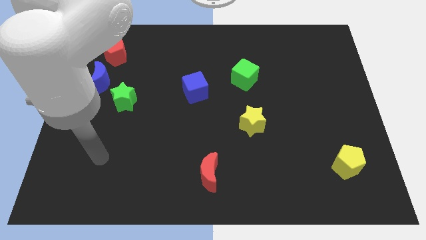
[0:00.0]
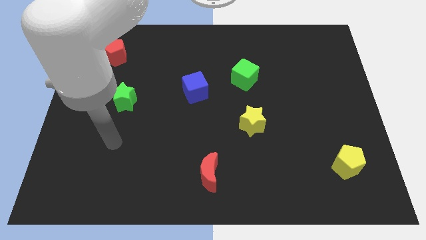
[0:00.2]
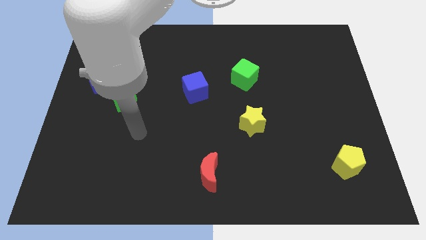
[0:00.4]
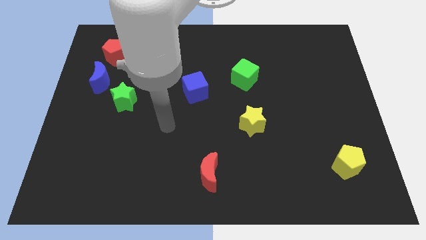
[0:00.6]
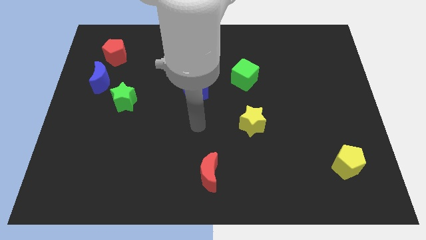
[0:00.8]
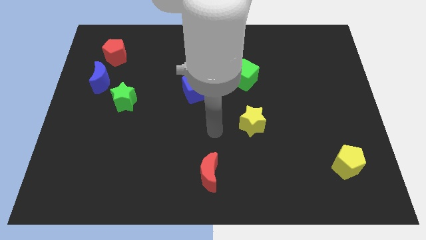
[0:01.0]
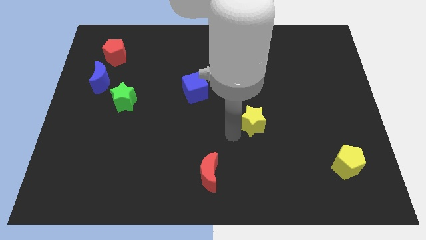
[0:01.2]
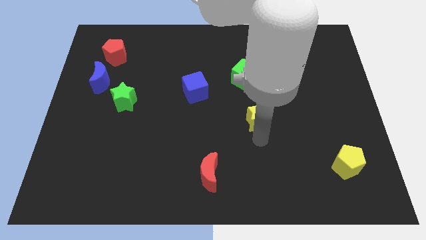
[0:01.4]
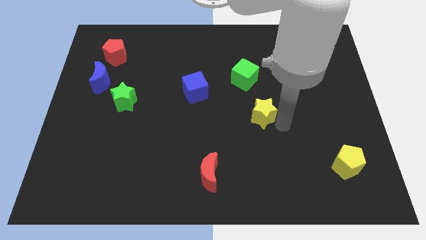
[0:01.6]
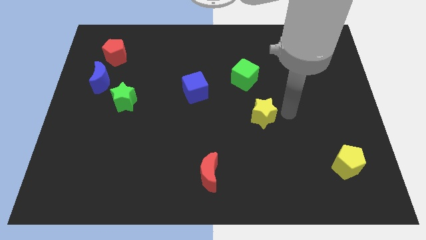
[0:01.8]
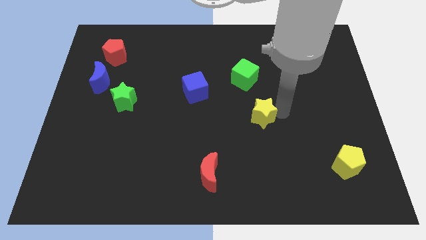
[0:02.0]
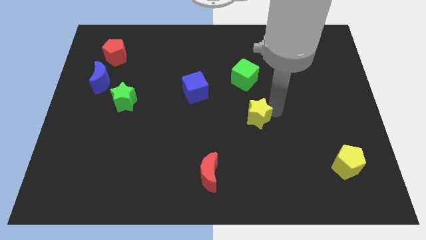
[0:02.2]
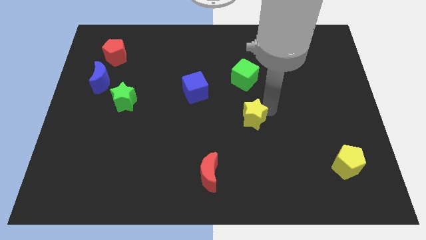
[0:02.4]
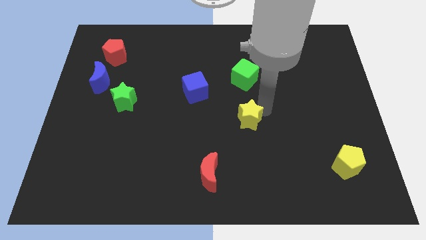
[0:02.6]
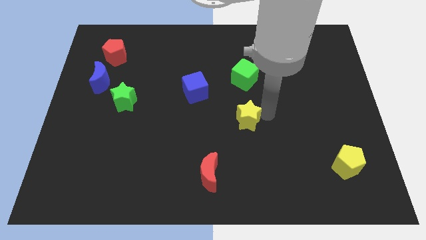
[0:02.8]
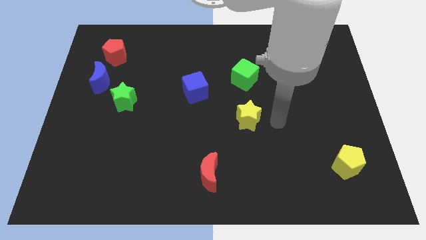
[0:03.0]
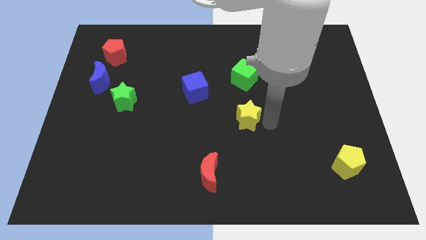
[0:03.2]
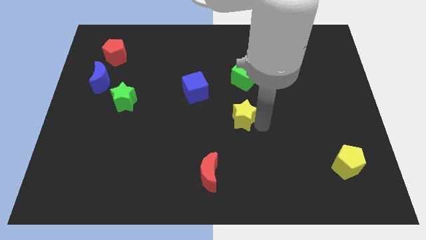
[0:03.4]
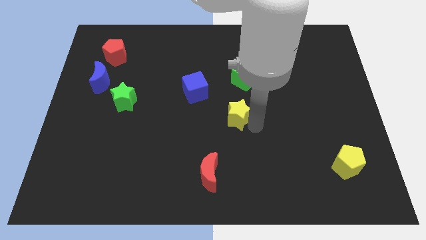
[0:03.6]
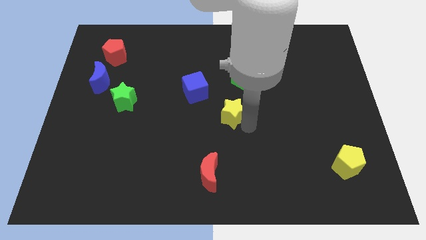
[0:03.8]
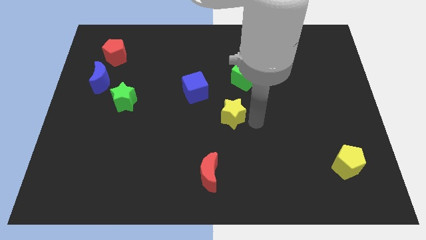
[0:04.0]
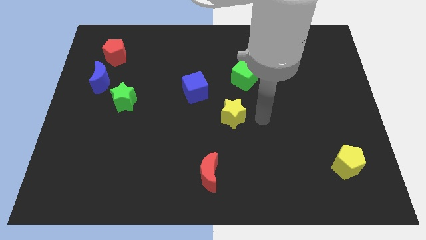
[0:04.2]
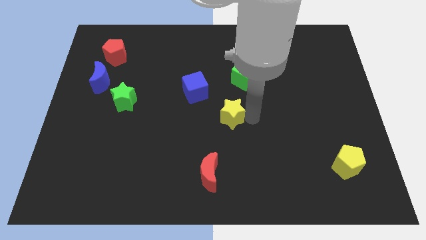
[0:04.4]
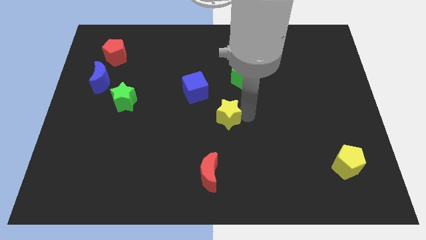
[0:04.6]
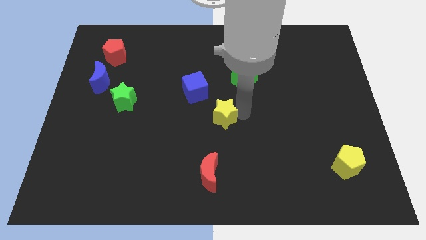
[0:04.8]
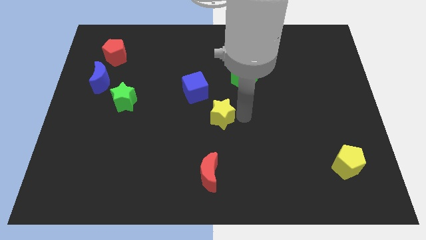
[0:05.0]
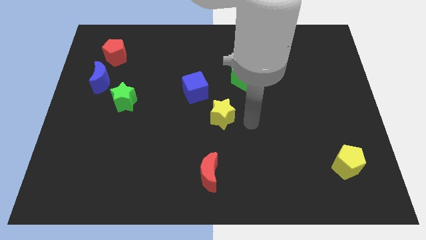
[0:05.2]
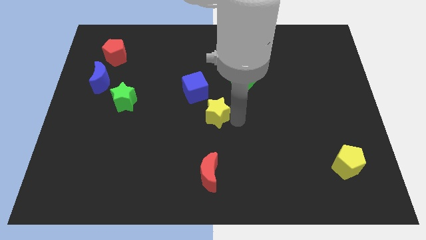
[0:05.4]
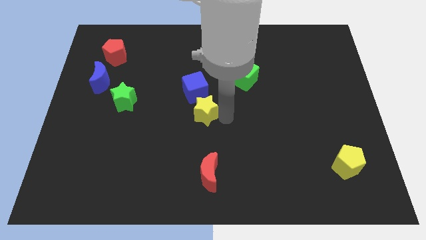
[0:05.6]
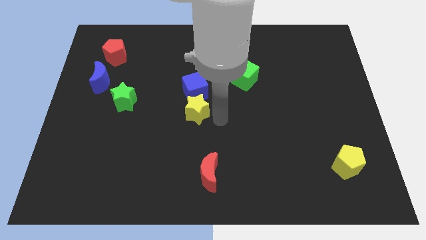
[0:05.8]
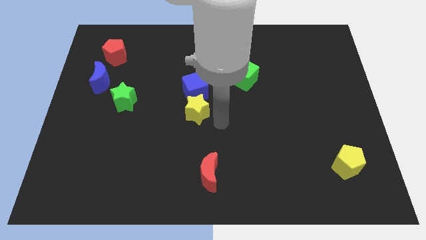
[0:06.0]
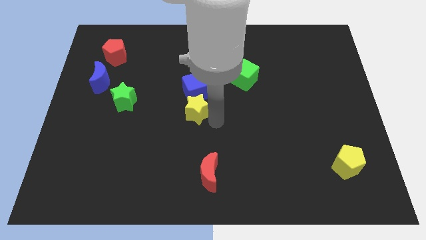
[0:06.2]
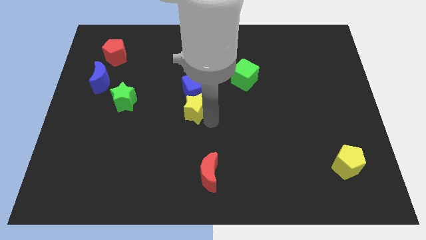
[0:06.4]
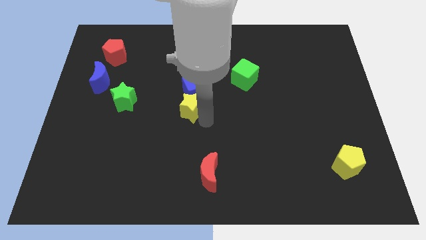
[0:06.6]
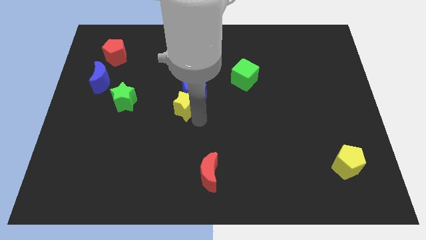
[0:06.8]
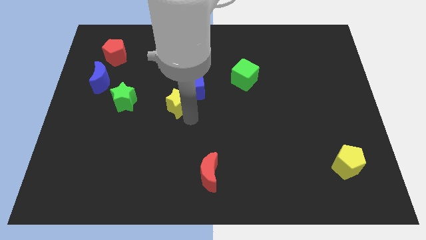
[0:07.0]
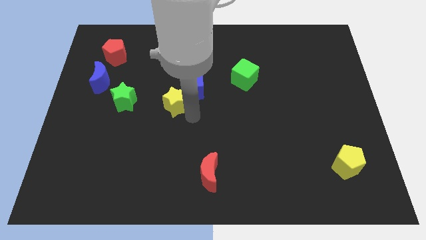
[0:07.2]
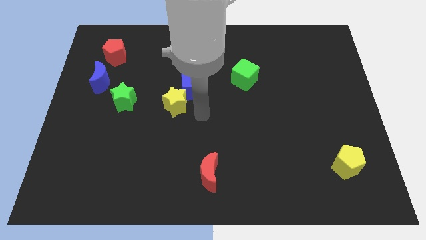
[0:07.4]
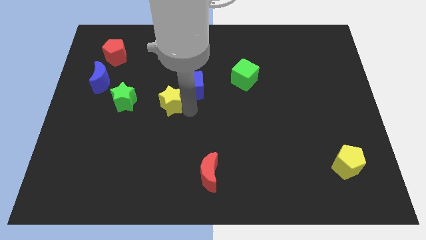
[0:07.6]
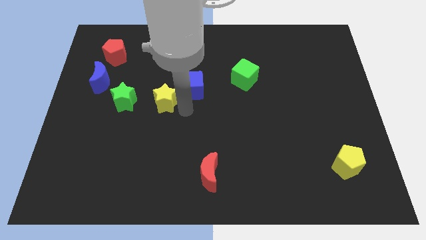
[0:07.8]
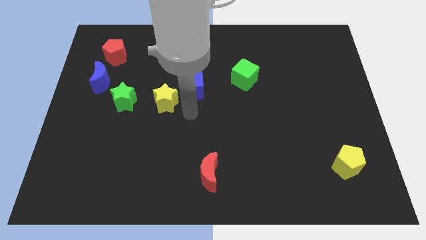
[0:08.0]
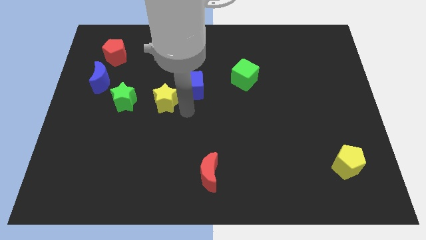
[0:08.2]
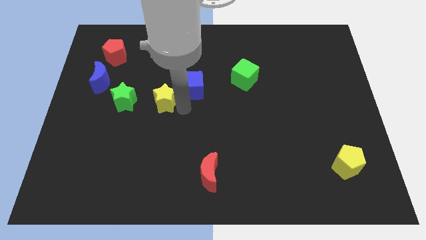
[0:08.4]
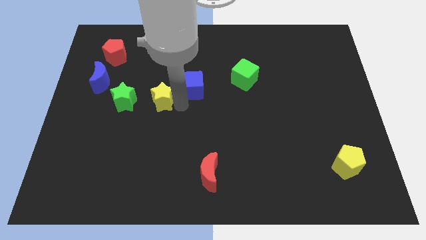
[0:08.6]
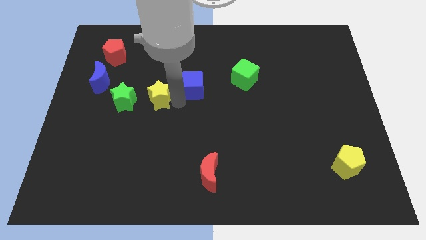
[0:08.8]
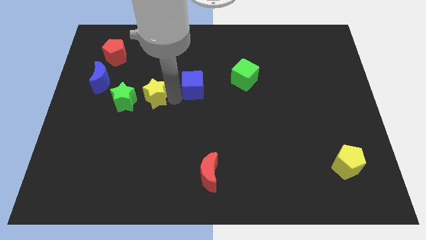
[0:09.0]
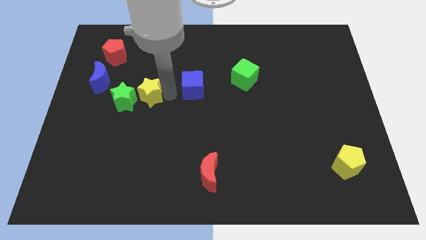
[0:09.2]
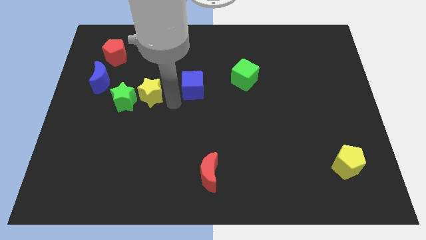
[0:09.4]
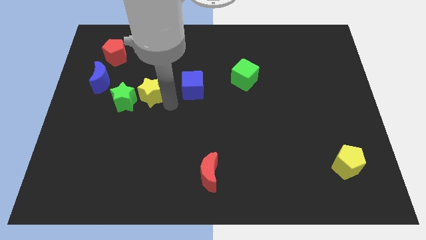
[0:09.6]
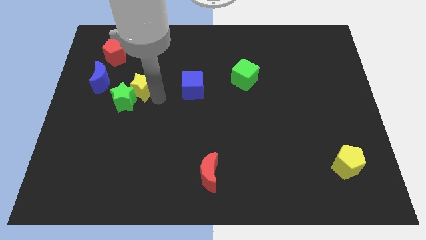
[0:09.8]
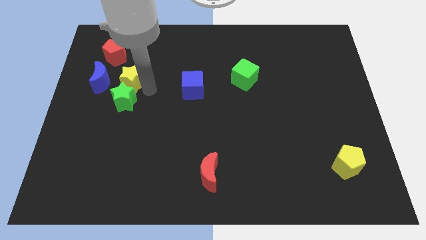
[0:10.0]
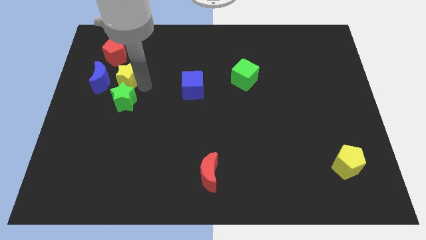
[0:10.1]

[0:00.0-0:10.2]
put the yellow star to the bottom of the red pentagon

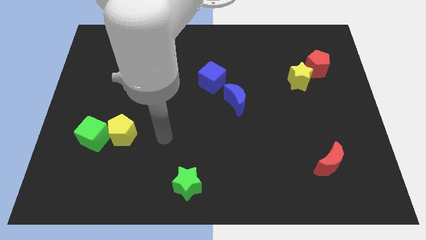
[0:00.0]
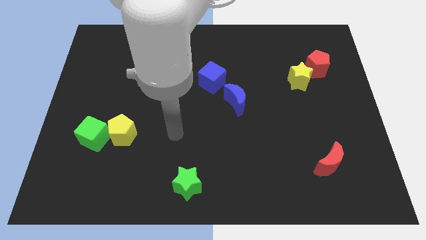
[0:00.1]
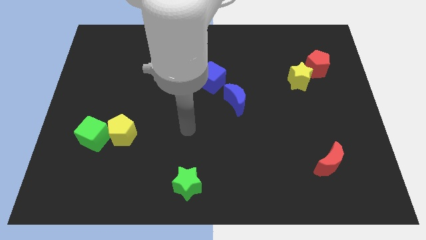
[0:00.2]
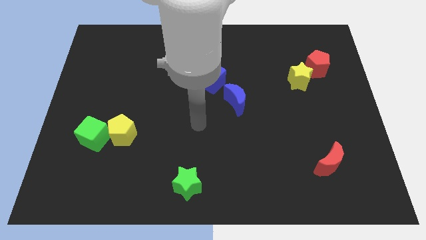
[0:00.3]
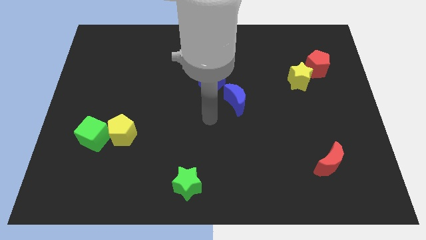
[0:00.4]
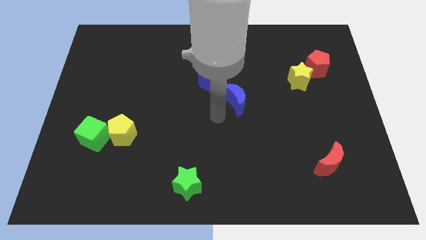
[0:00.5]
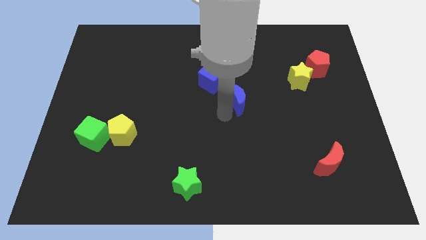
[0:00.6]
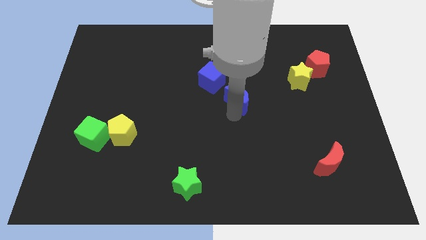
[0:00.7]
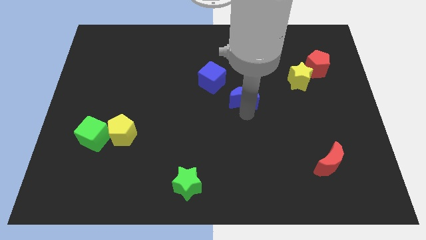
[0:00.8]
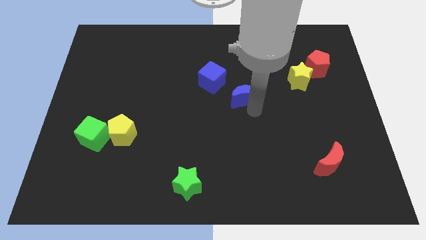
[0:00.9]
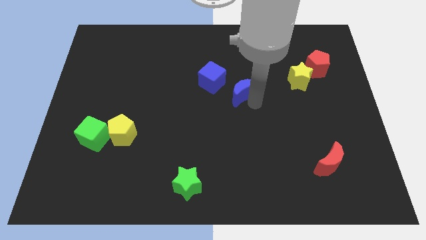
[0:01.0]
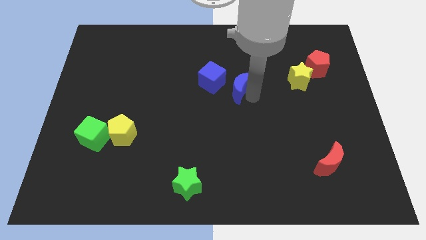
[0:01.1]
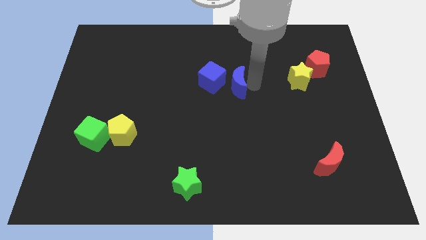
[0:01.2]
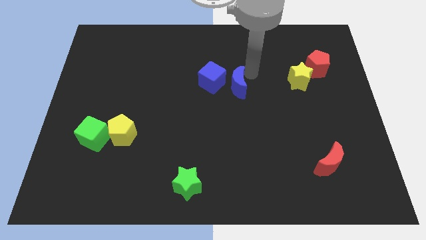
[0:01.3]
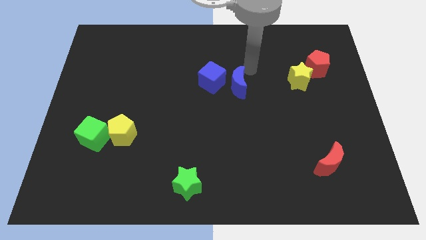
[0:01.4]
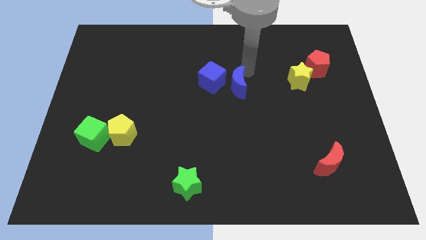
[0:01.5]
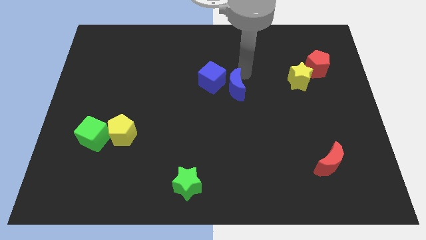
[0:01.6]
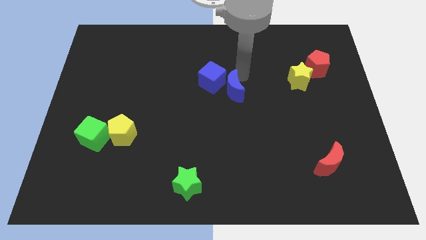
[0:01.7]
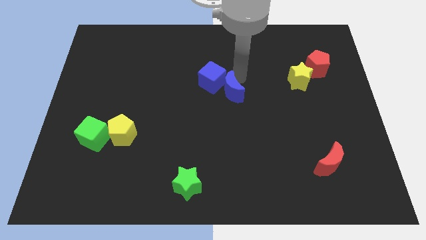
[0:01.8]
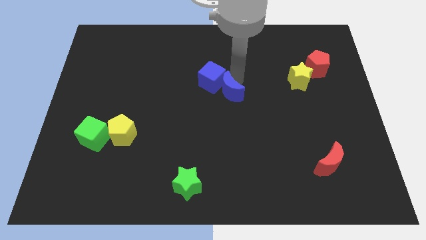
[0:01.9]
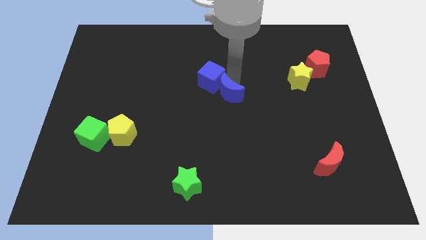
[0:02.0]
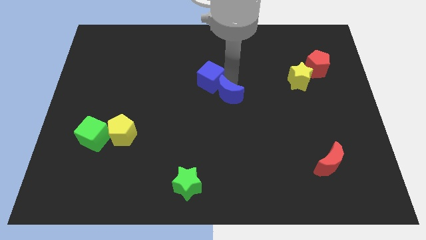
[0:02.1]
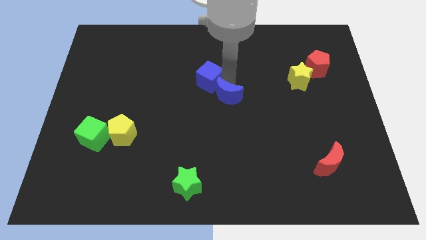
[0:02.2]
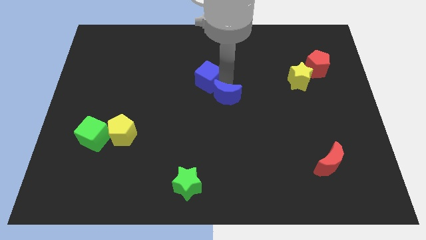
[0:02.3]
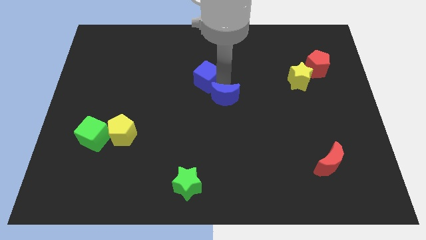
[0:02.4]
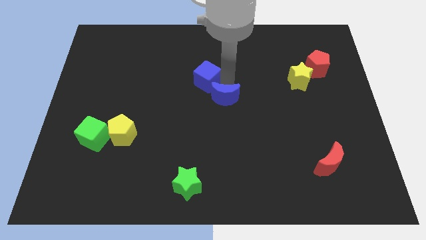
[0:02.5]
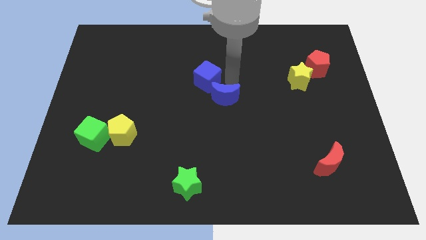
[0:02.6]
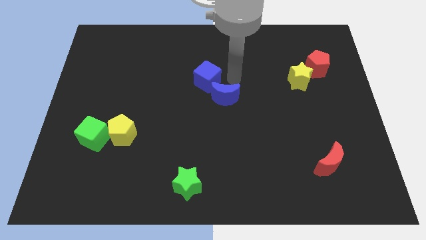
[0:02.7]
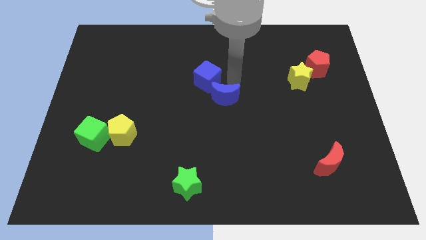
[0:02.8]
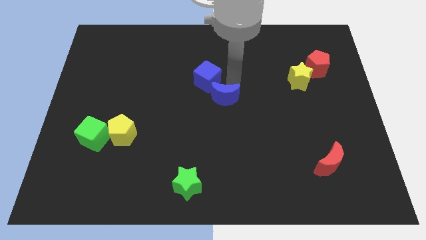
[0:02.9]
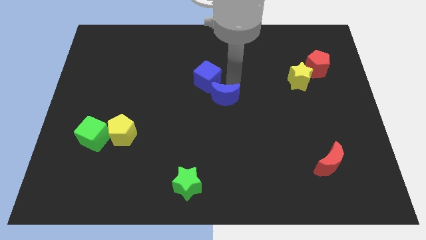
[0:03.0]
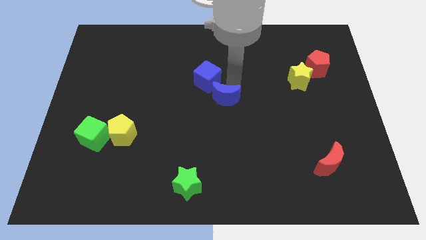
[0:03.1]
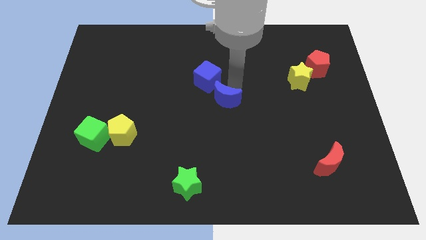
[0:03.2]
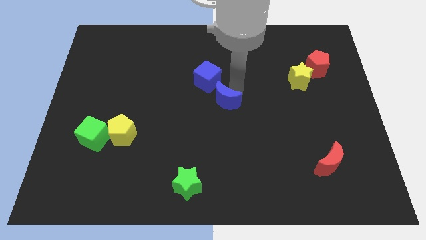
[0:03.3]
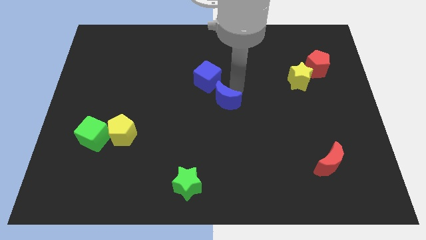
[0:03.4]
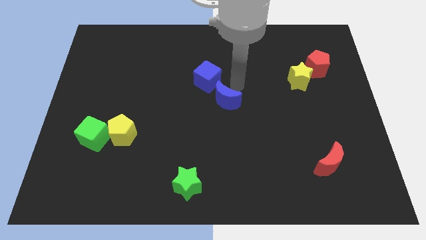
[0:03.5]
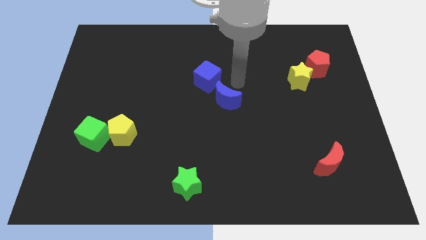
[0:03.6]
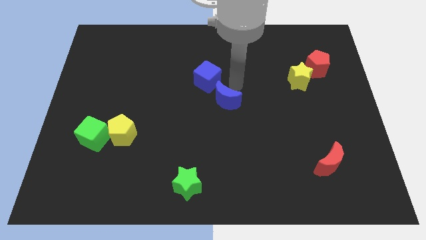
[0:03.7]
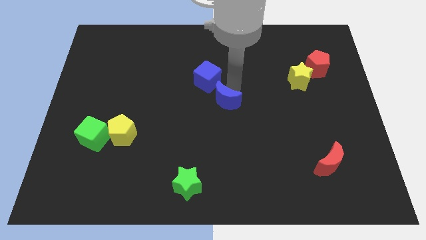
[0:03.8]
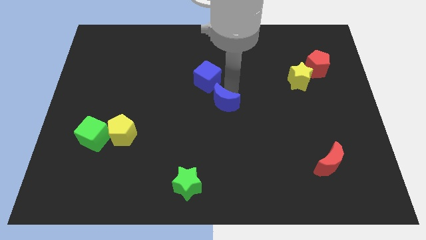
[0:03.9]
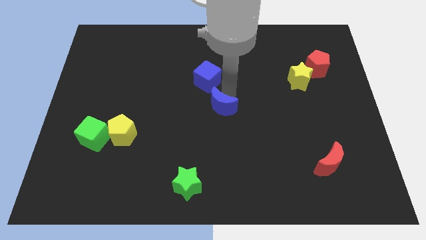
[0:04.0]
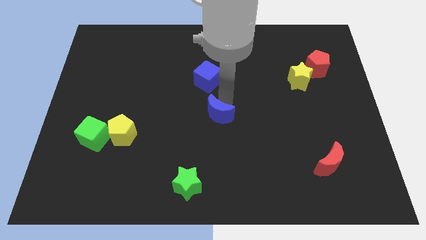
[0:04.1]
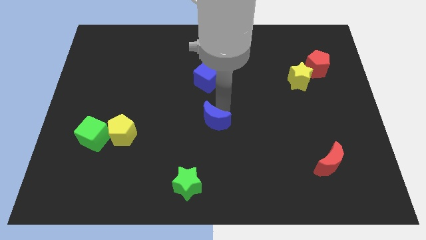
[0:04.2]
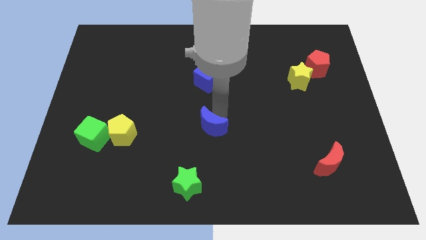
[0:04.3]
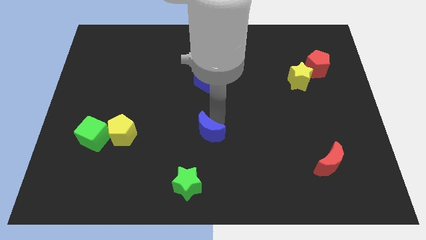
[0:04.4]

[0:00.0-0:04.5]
move the blue moon to the top side of the green star
